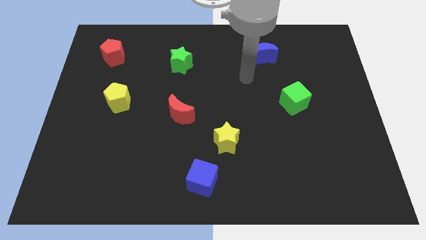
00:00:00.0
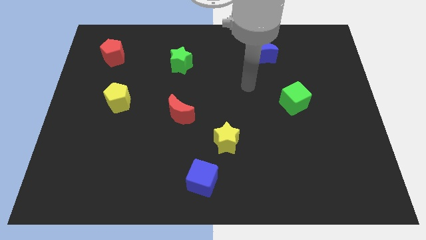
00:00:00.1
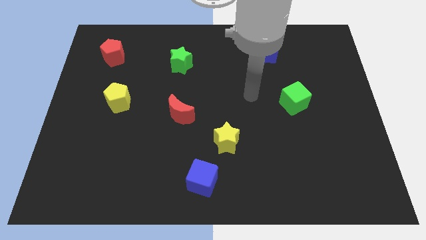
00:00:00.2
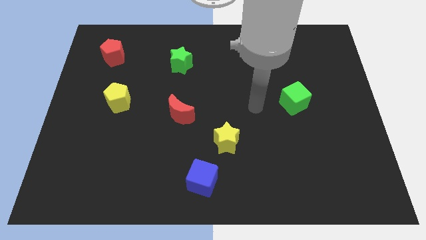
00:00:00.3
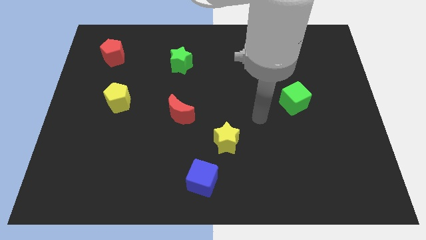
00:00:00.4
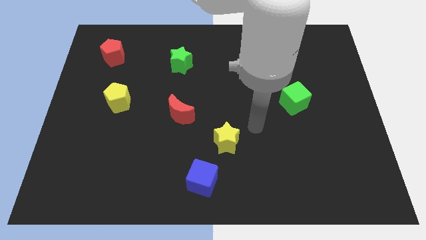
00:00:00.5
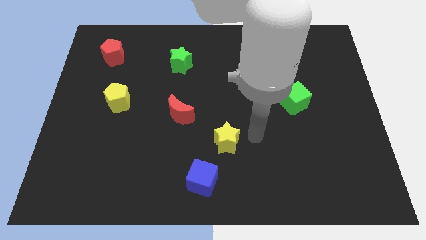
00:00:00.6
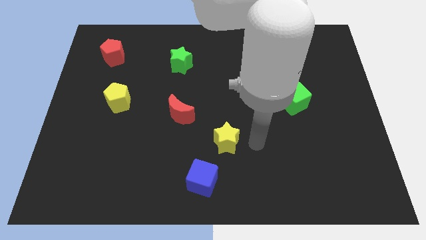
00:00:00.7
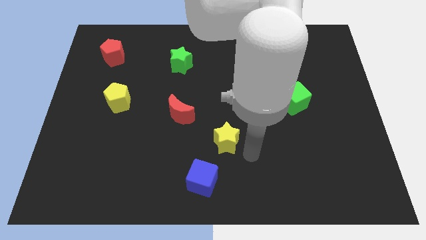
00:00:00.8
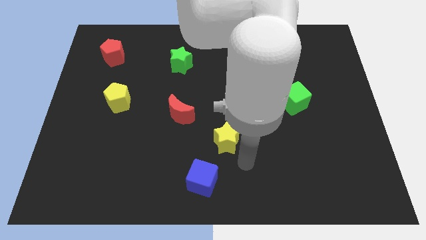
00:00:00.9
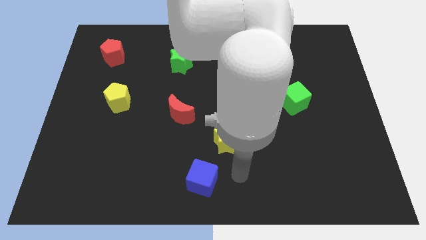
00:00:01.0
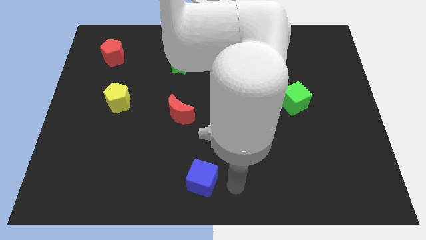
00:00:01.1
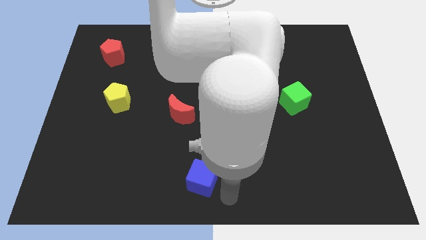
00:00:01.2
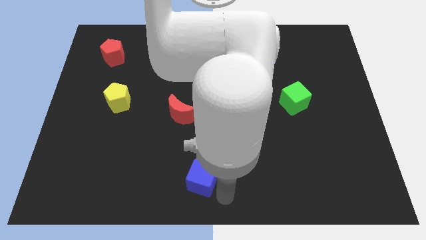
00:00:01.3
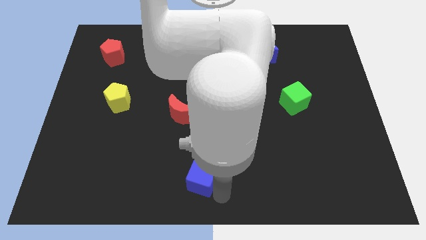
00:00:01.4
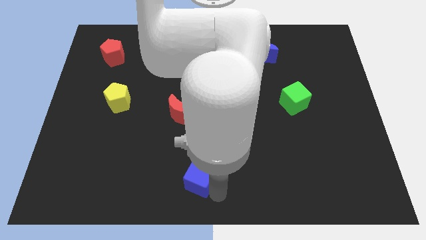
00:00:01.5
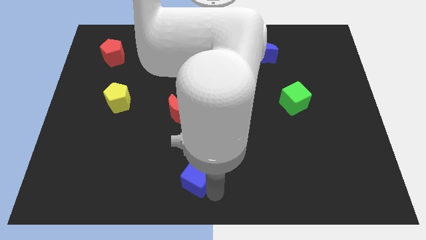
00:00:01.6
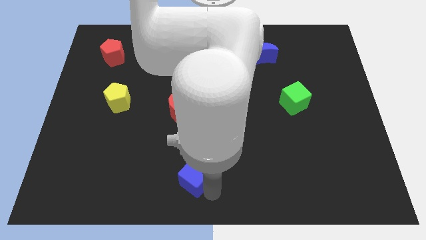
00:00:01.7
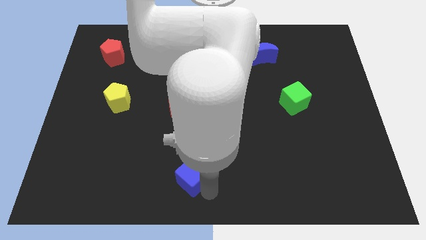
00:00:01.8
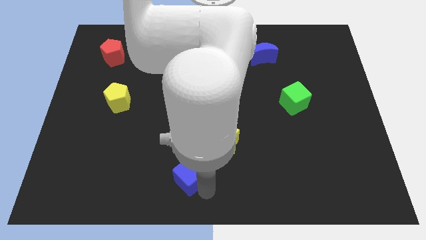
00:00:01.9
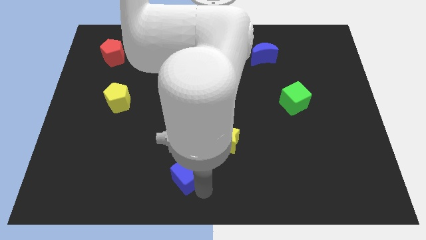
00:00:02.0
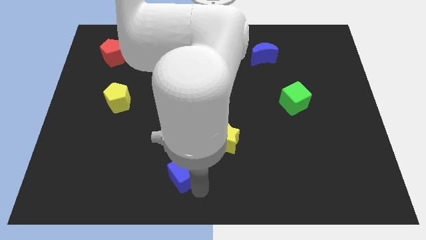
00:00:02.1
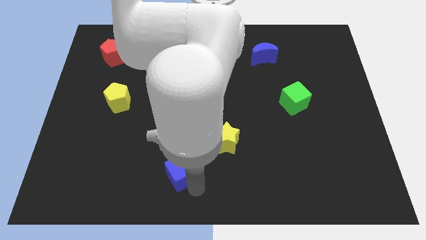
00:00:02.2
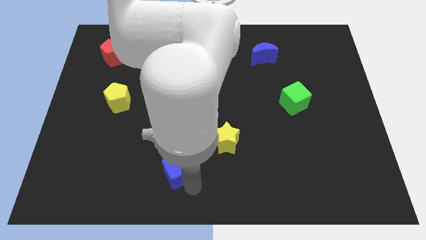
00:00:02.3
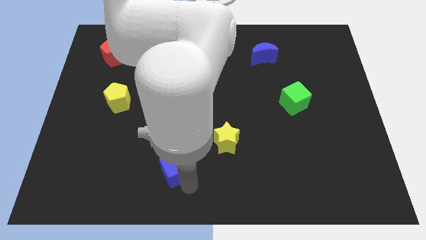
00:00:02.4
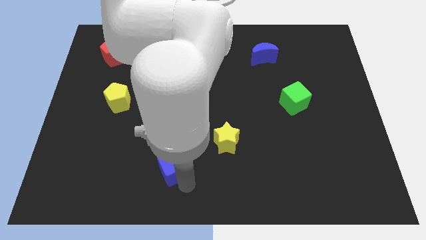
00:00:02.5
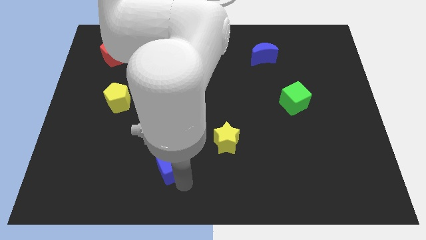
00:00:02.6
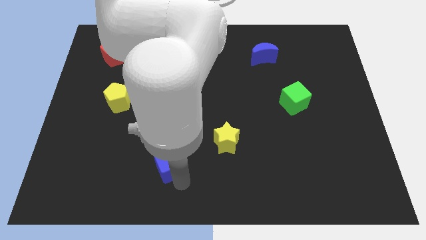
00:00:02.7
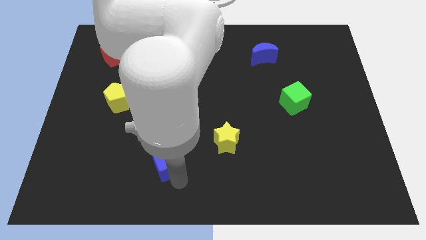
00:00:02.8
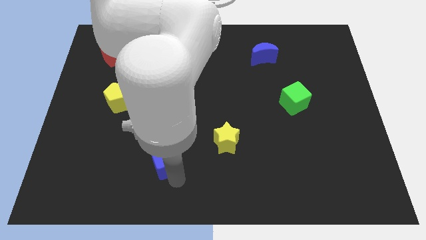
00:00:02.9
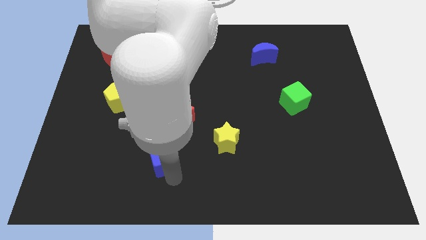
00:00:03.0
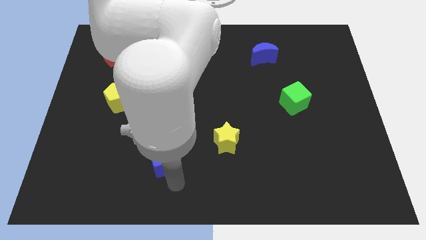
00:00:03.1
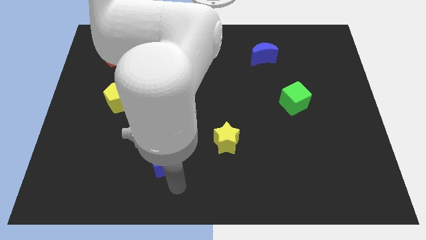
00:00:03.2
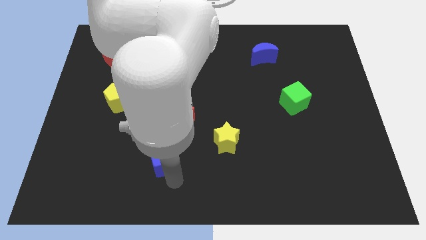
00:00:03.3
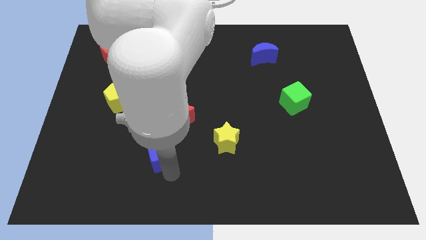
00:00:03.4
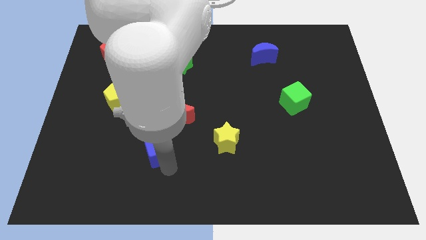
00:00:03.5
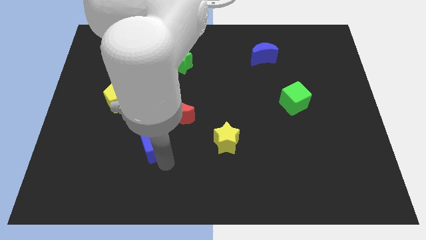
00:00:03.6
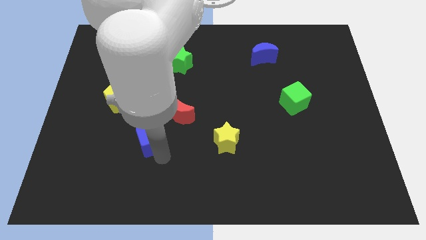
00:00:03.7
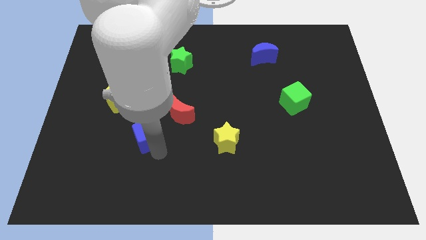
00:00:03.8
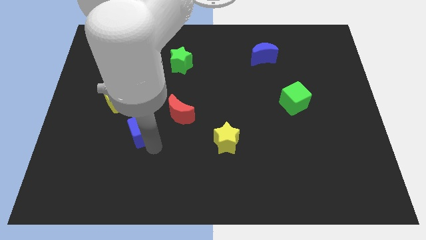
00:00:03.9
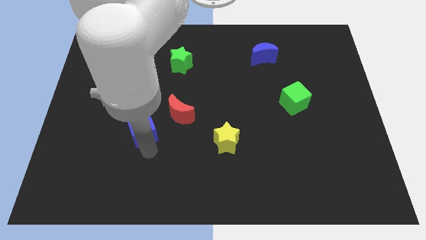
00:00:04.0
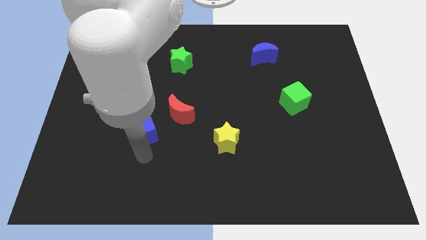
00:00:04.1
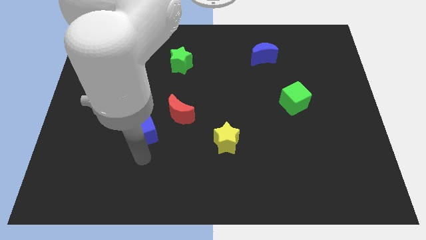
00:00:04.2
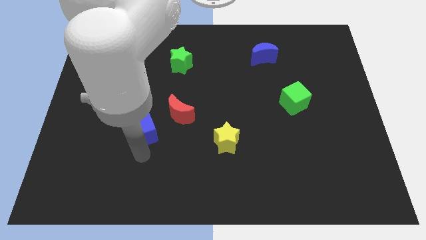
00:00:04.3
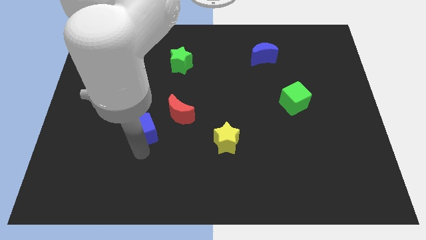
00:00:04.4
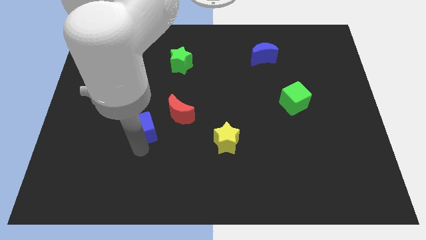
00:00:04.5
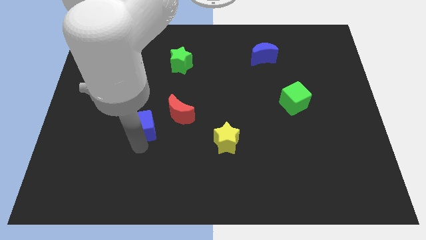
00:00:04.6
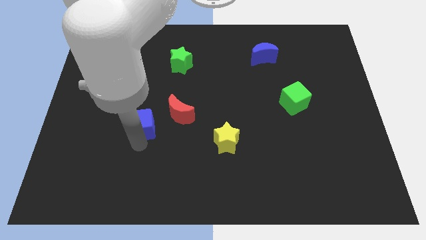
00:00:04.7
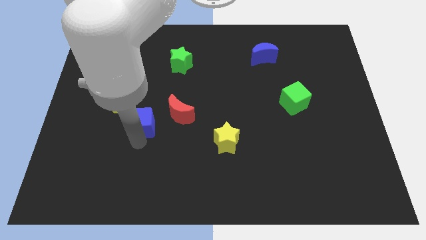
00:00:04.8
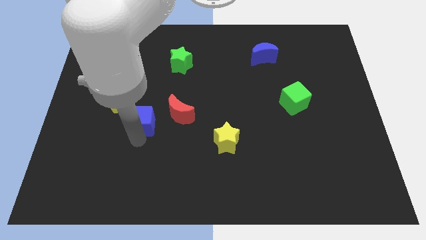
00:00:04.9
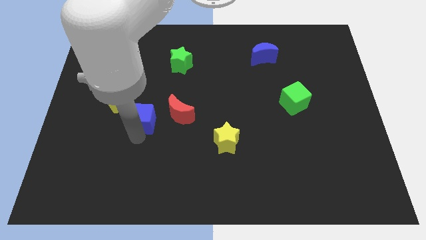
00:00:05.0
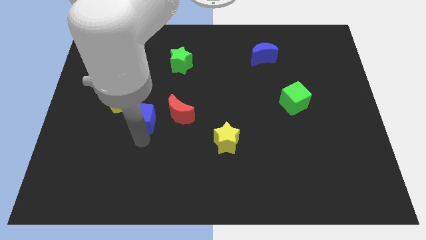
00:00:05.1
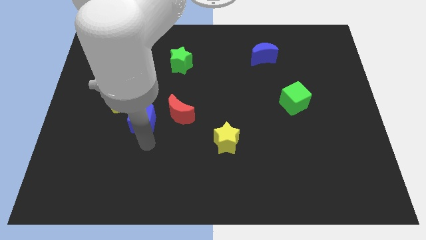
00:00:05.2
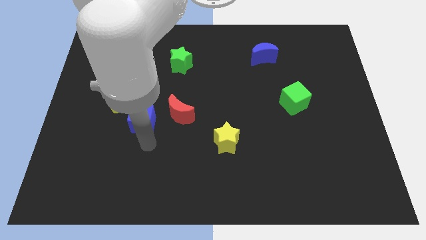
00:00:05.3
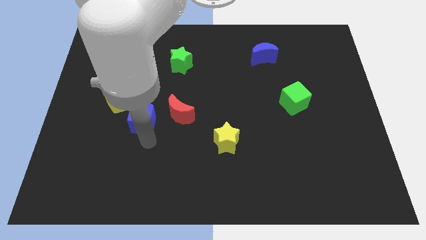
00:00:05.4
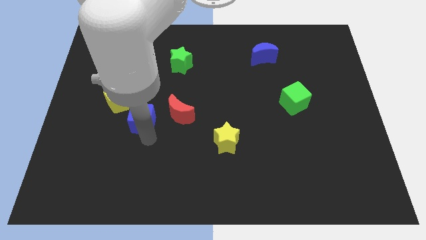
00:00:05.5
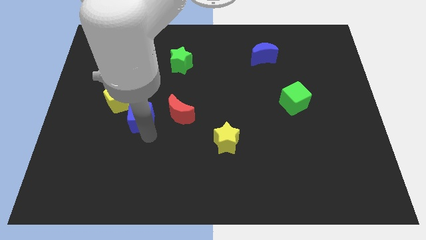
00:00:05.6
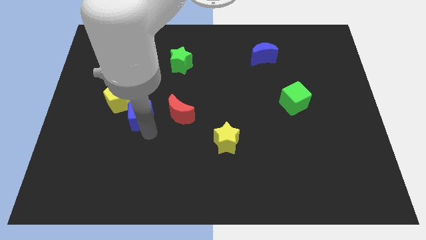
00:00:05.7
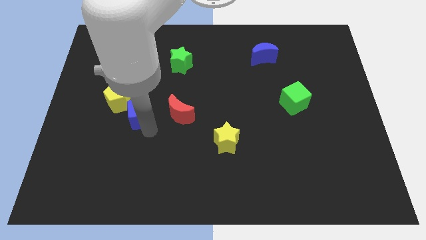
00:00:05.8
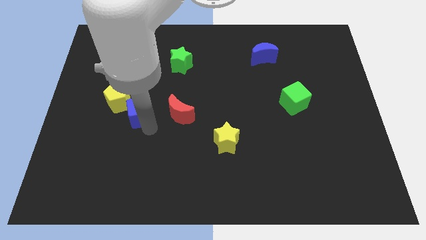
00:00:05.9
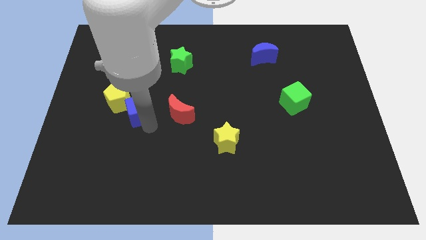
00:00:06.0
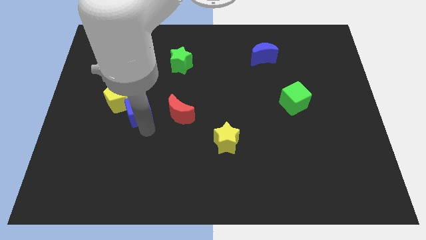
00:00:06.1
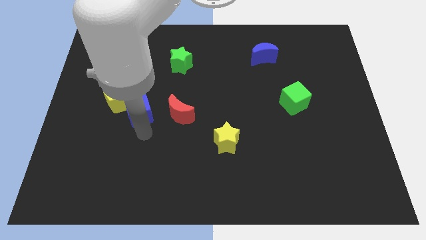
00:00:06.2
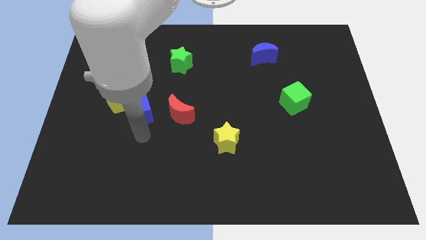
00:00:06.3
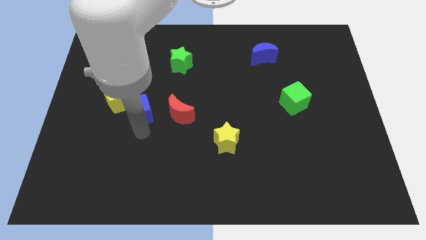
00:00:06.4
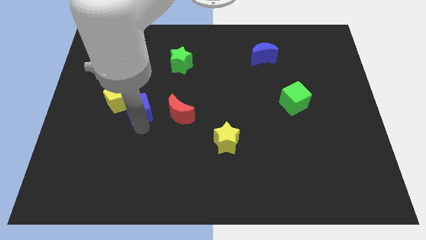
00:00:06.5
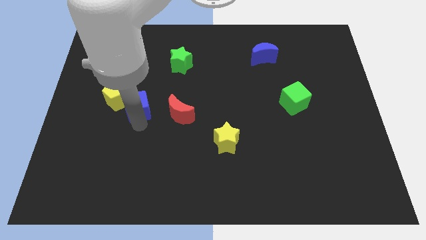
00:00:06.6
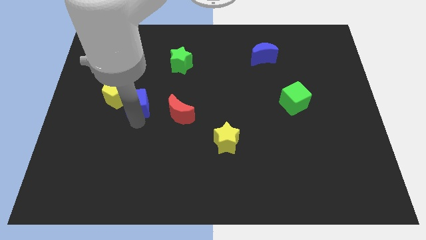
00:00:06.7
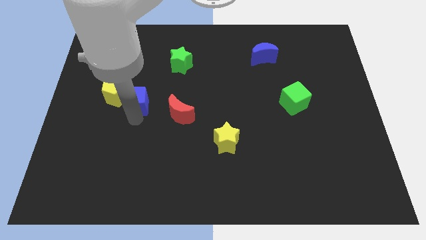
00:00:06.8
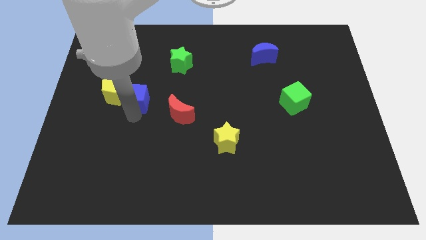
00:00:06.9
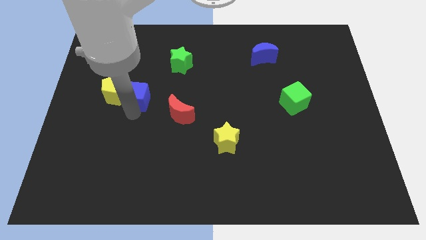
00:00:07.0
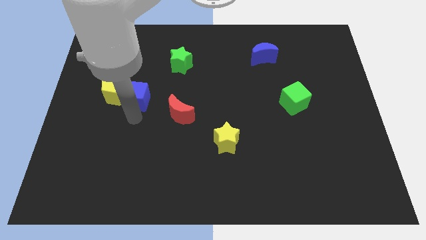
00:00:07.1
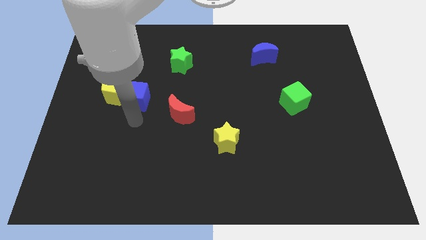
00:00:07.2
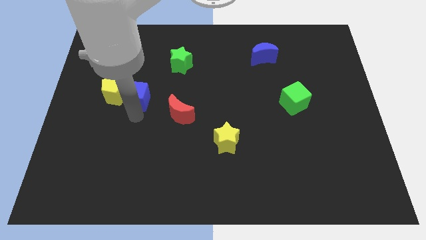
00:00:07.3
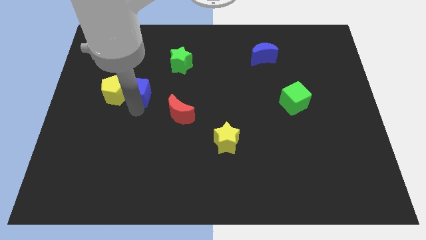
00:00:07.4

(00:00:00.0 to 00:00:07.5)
put the blue cube diagonally up and to the right of the yellow pentagon
